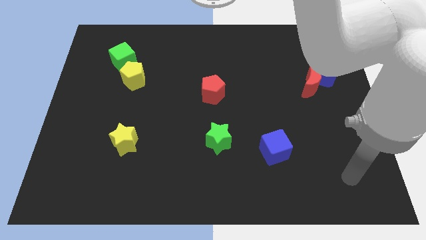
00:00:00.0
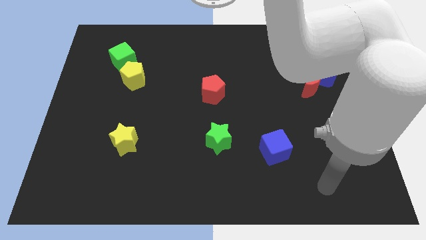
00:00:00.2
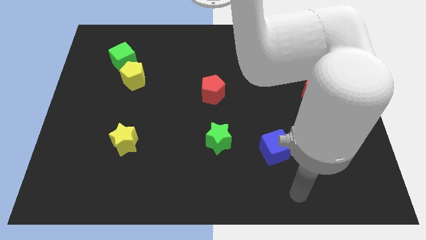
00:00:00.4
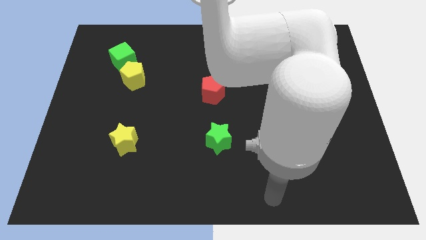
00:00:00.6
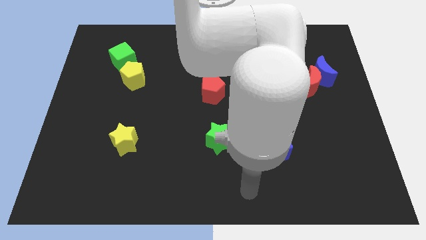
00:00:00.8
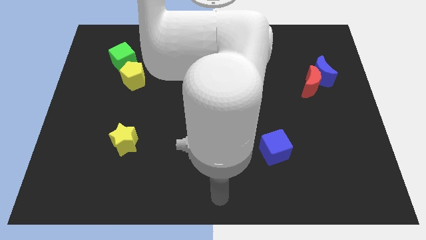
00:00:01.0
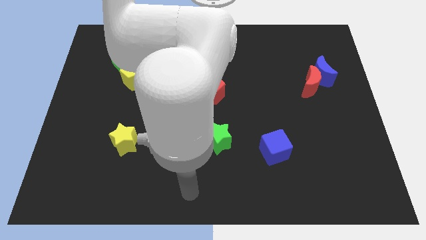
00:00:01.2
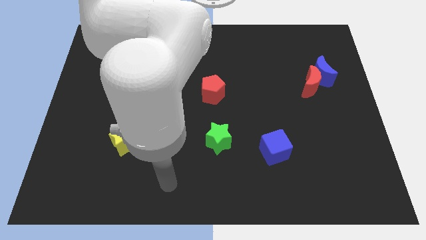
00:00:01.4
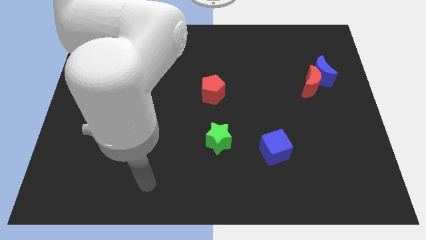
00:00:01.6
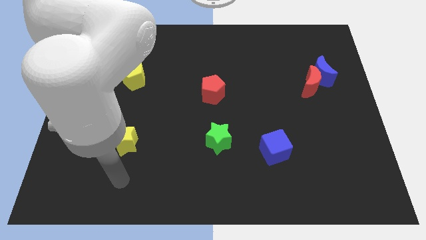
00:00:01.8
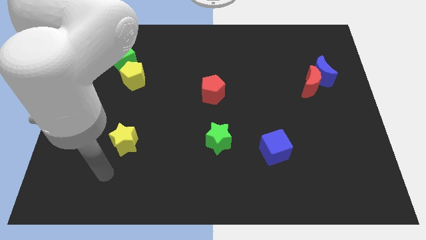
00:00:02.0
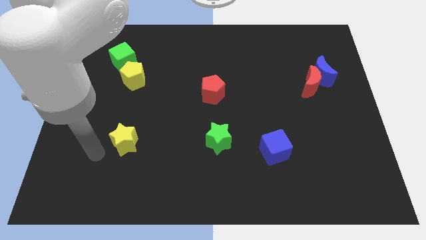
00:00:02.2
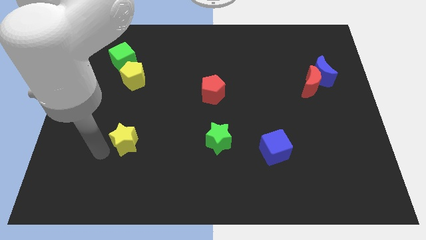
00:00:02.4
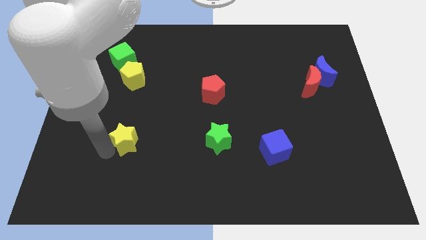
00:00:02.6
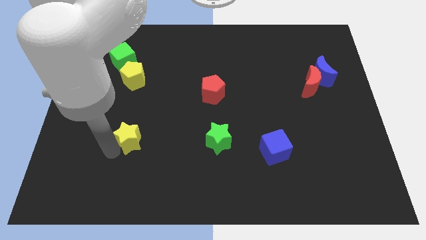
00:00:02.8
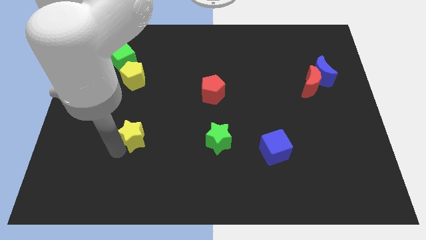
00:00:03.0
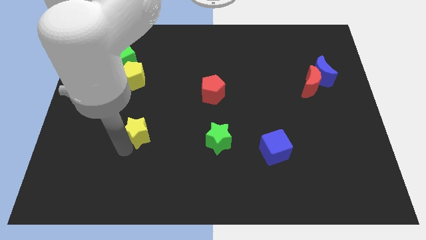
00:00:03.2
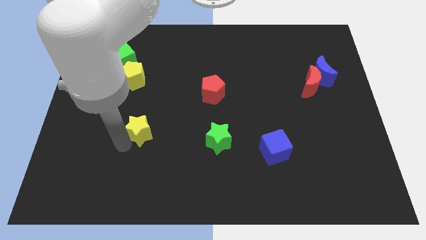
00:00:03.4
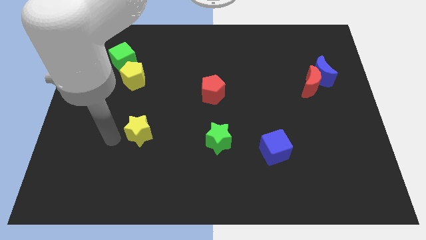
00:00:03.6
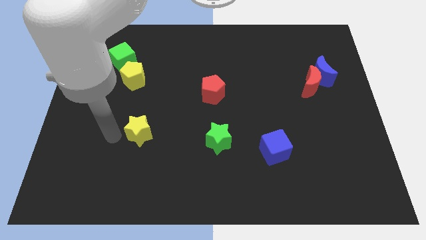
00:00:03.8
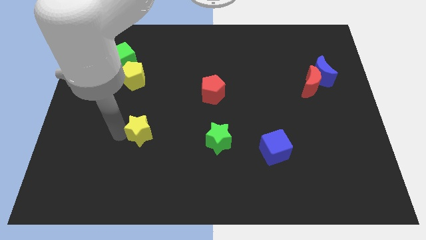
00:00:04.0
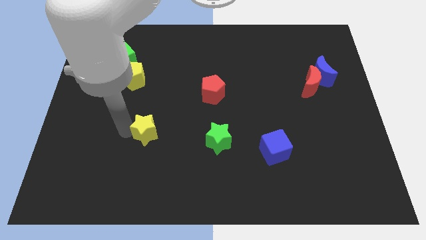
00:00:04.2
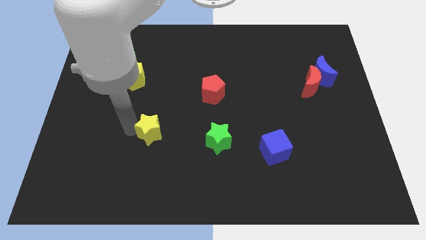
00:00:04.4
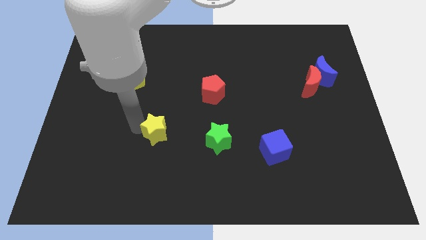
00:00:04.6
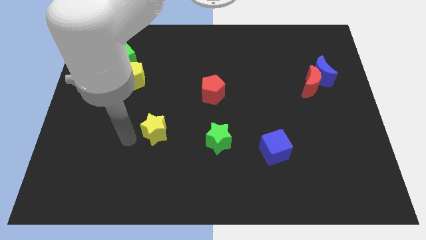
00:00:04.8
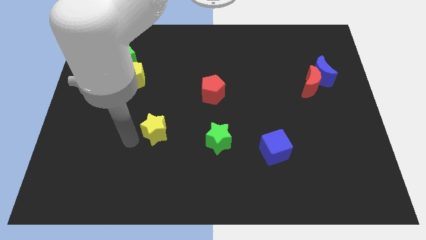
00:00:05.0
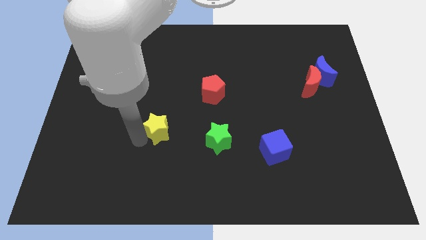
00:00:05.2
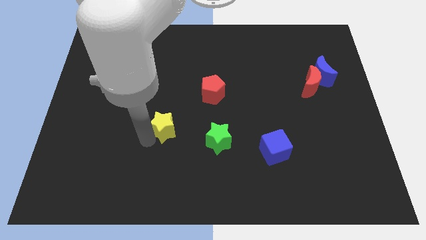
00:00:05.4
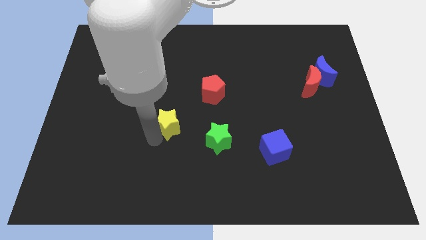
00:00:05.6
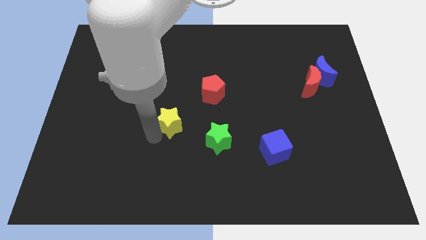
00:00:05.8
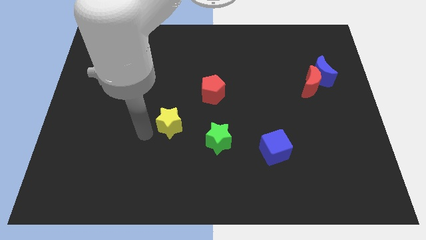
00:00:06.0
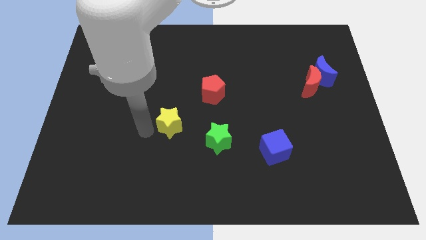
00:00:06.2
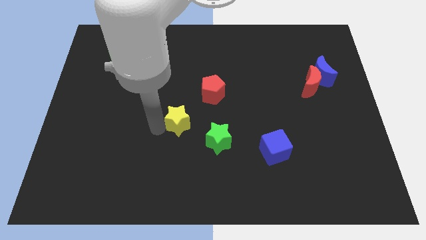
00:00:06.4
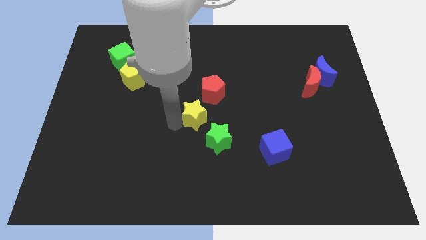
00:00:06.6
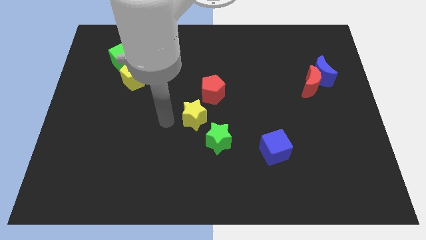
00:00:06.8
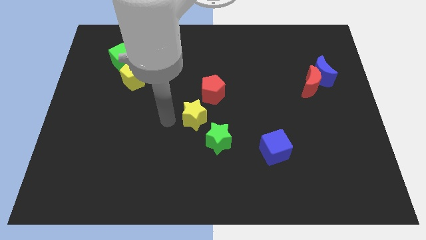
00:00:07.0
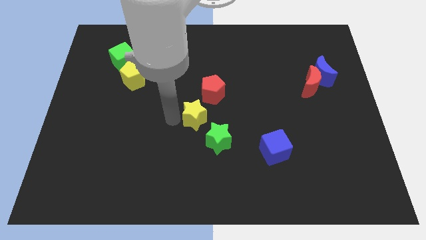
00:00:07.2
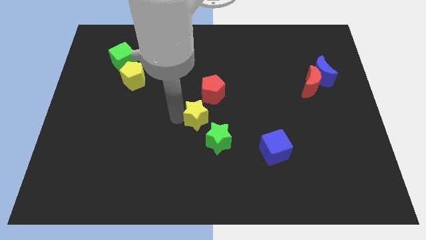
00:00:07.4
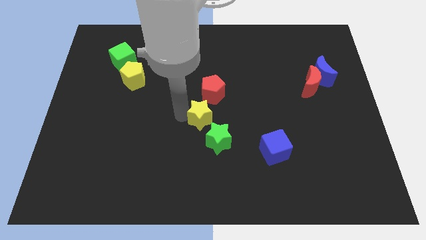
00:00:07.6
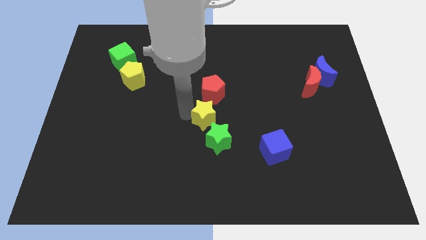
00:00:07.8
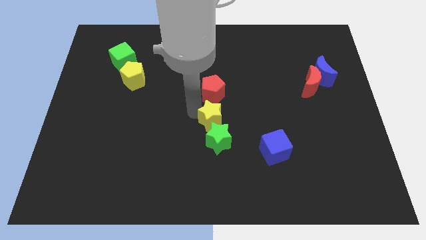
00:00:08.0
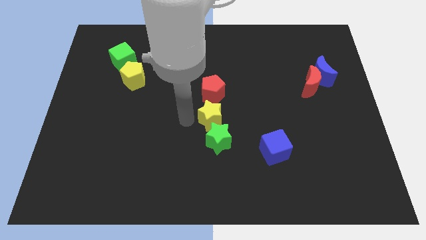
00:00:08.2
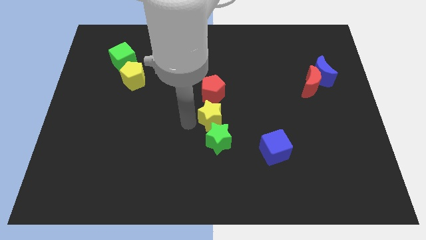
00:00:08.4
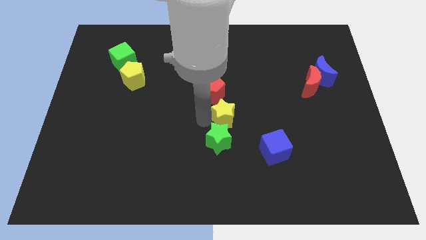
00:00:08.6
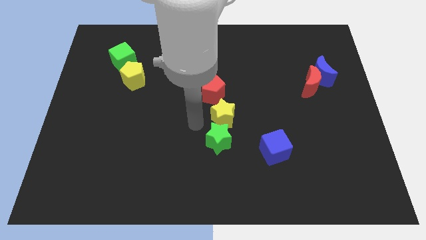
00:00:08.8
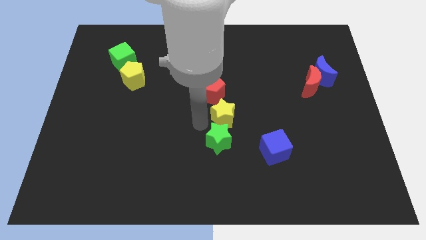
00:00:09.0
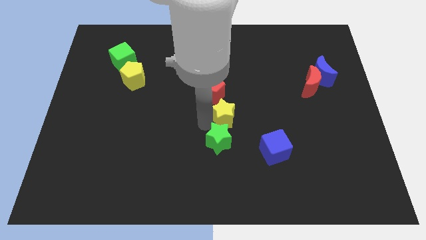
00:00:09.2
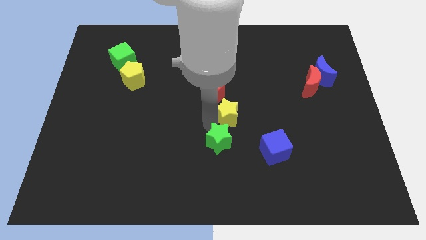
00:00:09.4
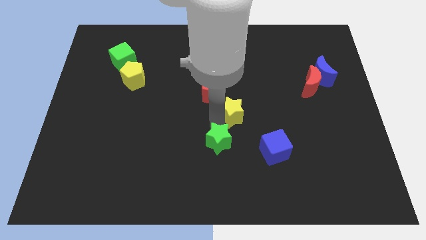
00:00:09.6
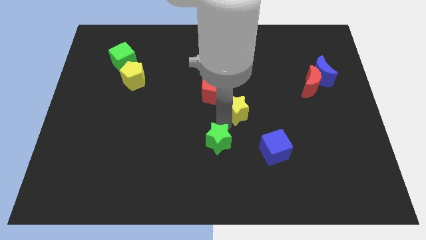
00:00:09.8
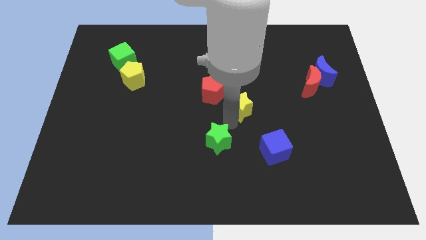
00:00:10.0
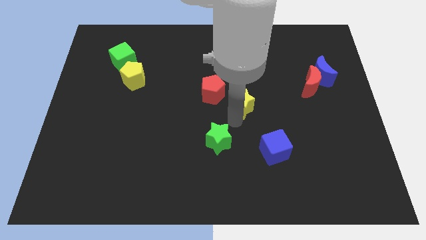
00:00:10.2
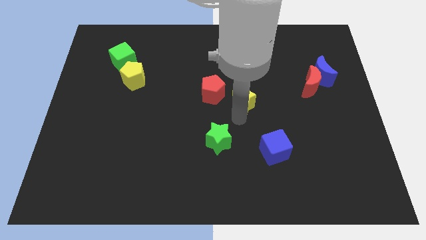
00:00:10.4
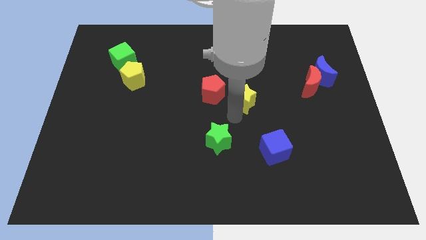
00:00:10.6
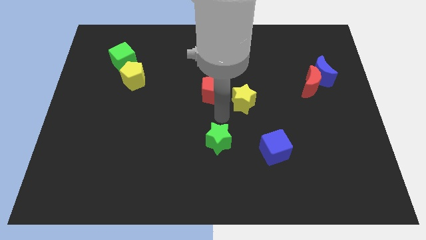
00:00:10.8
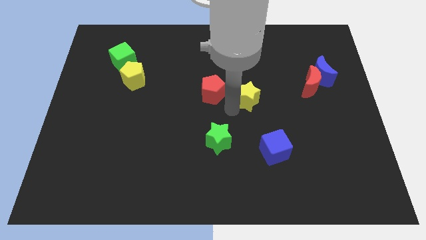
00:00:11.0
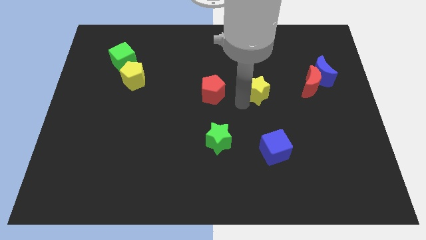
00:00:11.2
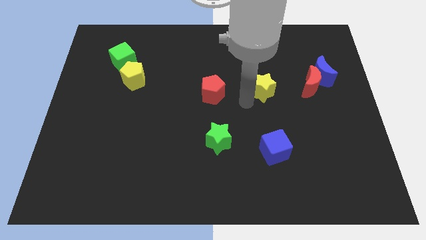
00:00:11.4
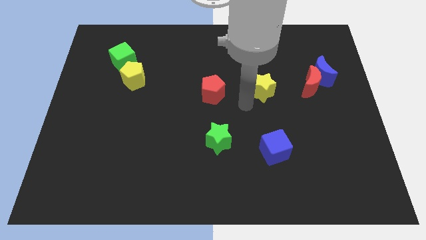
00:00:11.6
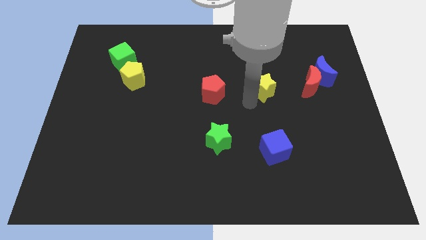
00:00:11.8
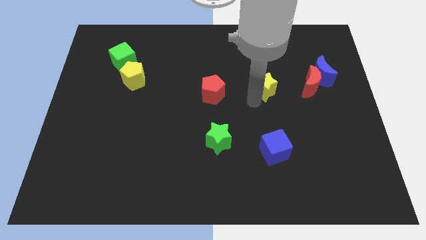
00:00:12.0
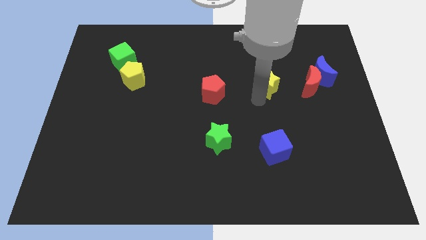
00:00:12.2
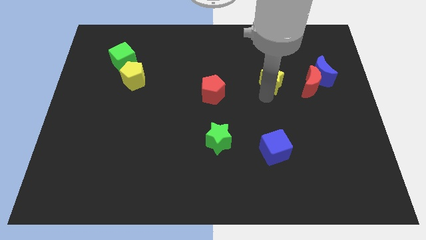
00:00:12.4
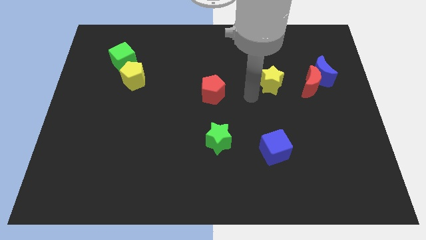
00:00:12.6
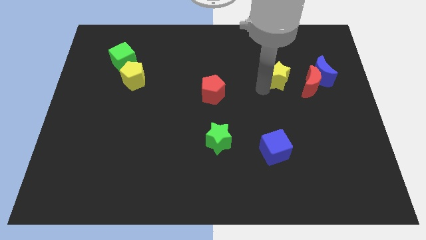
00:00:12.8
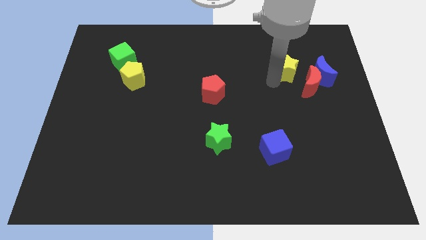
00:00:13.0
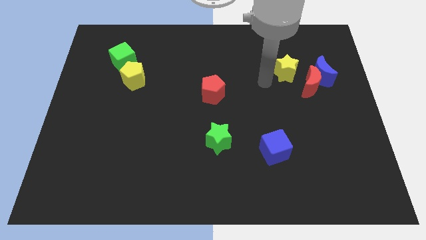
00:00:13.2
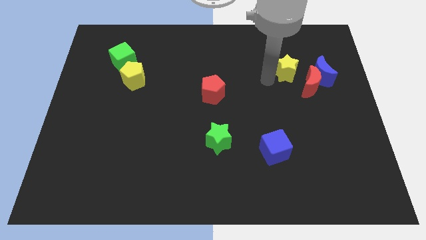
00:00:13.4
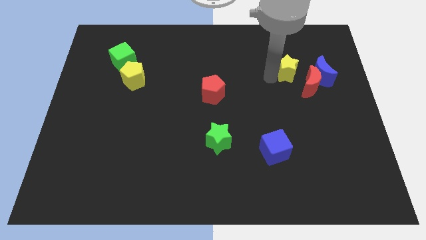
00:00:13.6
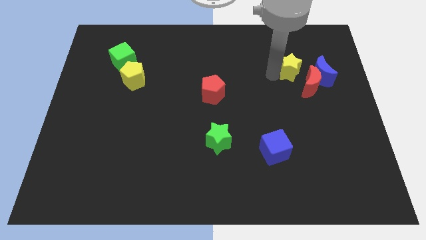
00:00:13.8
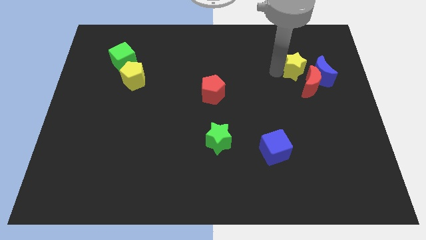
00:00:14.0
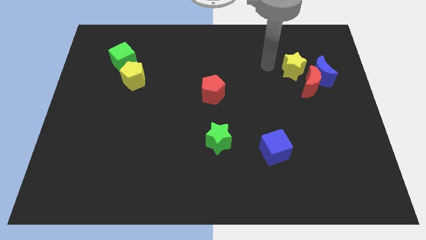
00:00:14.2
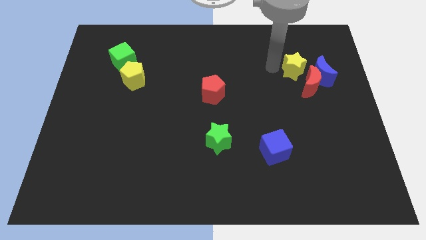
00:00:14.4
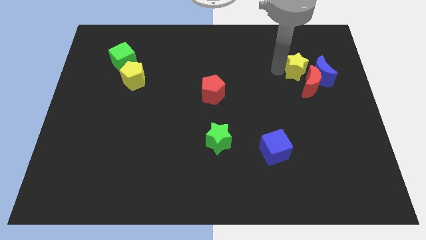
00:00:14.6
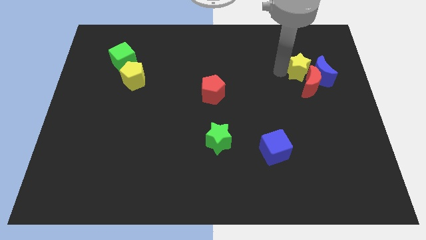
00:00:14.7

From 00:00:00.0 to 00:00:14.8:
push the yellow star next to the blue moon
